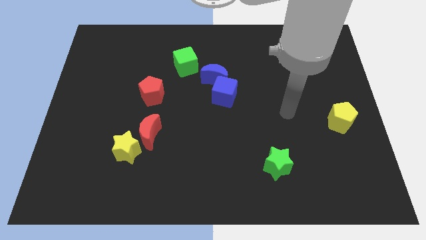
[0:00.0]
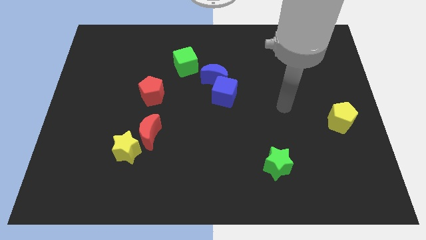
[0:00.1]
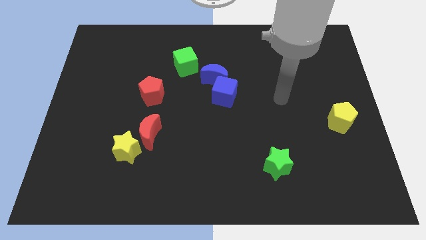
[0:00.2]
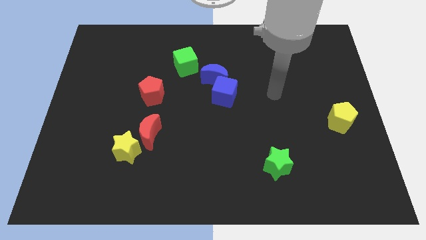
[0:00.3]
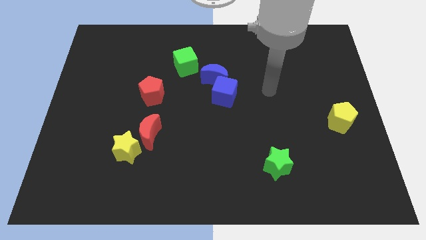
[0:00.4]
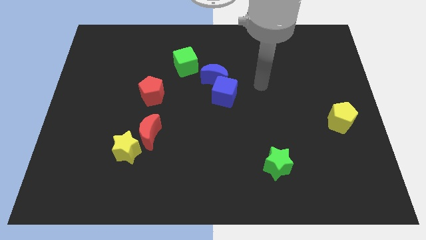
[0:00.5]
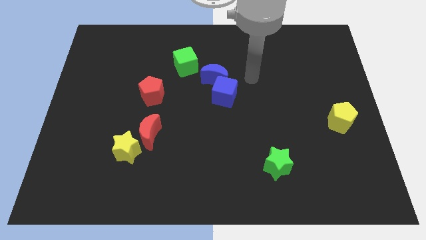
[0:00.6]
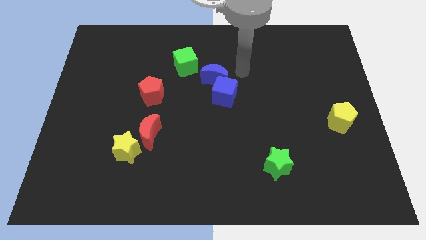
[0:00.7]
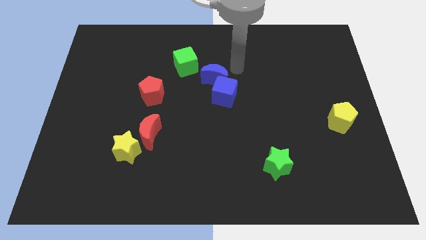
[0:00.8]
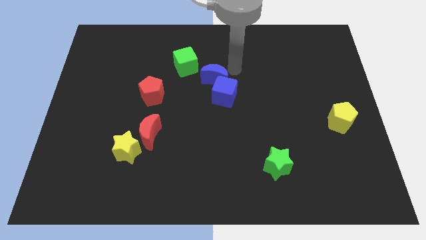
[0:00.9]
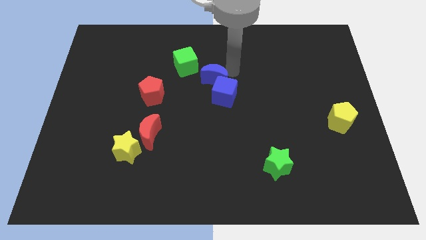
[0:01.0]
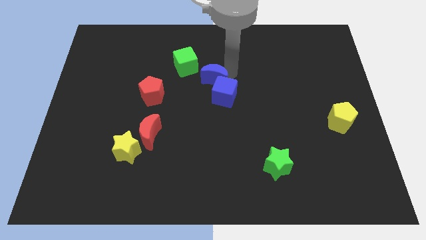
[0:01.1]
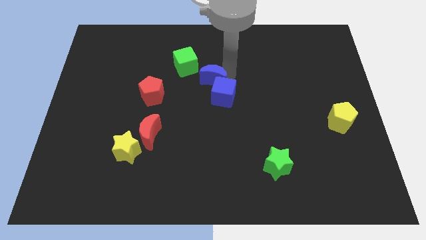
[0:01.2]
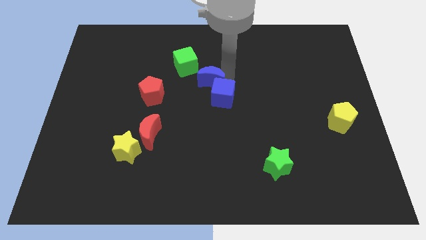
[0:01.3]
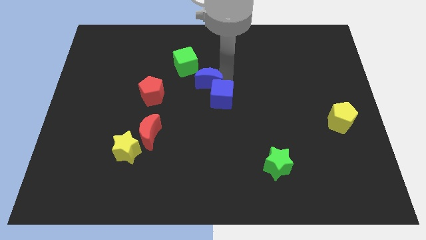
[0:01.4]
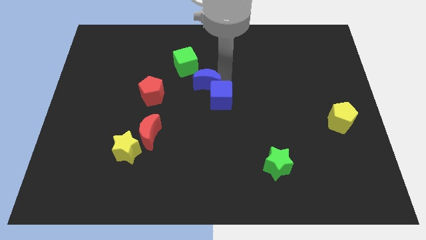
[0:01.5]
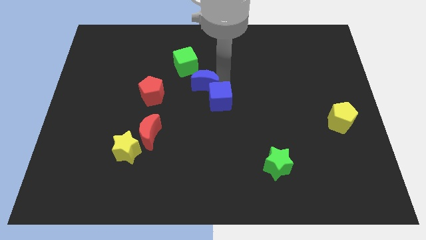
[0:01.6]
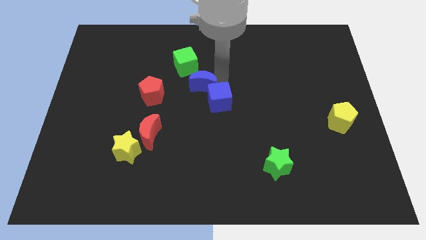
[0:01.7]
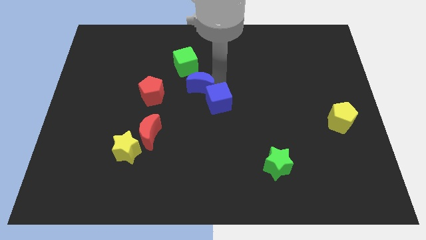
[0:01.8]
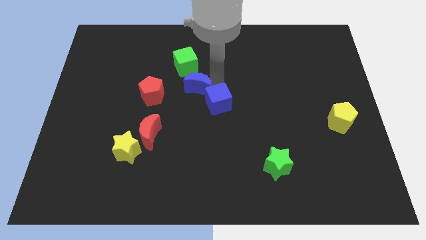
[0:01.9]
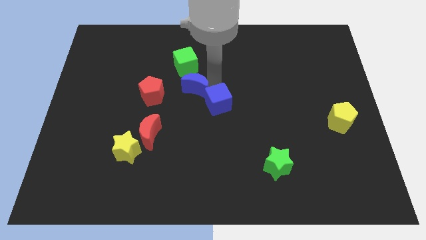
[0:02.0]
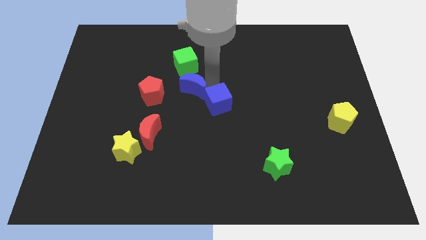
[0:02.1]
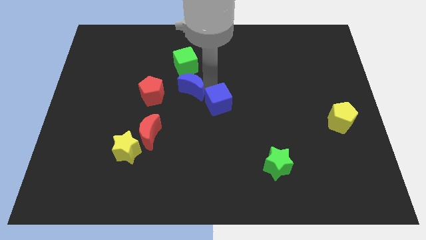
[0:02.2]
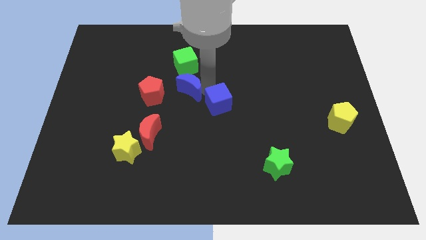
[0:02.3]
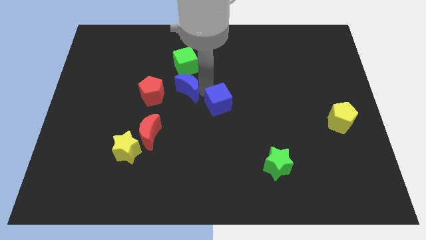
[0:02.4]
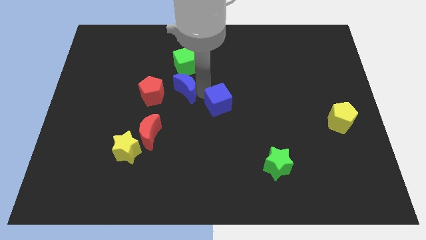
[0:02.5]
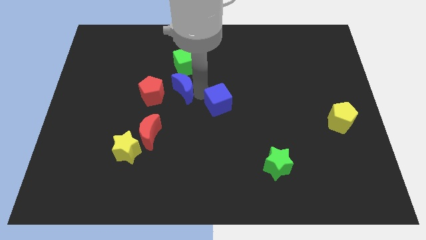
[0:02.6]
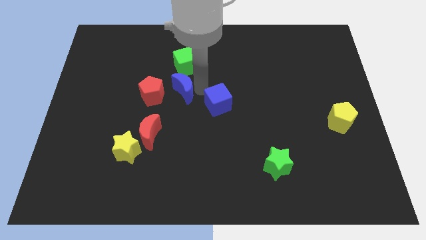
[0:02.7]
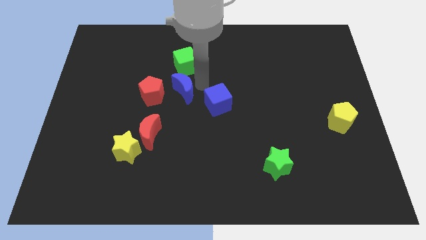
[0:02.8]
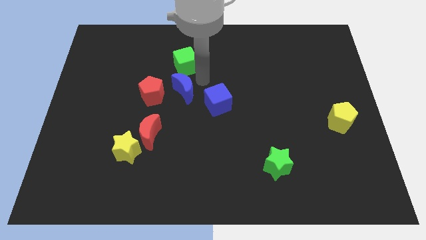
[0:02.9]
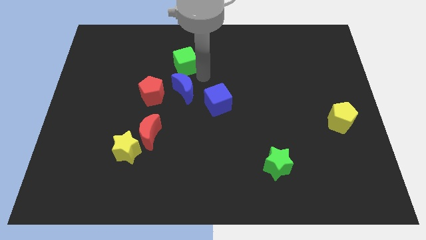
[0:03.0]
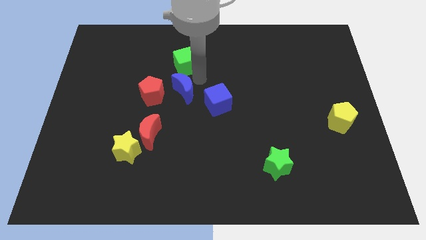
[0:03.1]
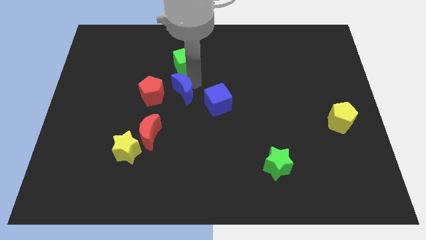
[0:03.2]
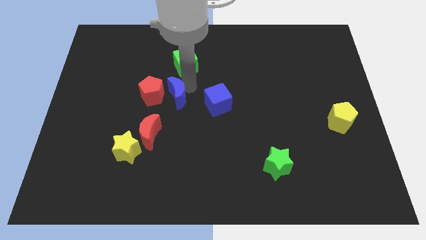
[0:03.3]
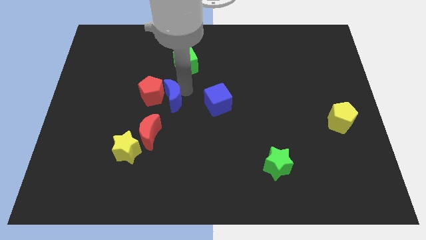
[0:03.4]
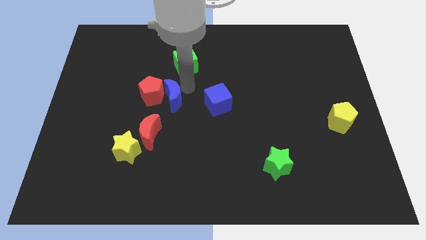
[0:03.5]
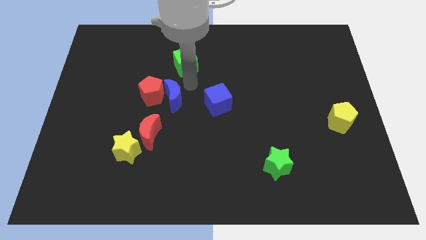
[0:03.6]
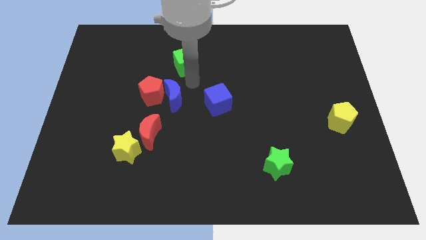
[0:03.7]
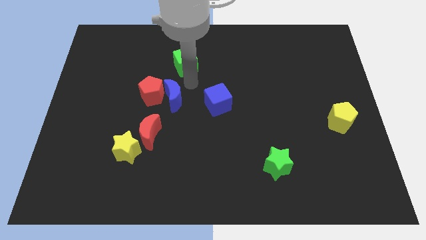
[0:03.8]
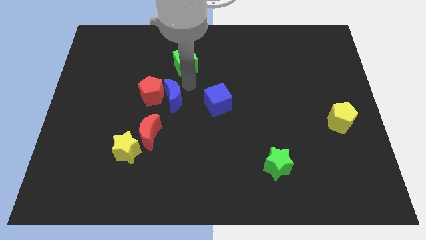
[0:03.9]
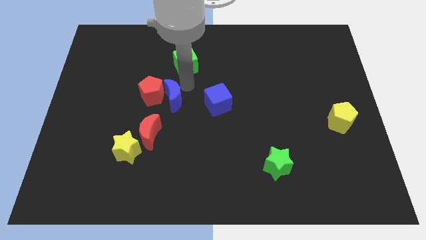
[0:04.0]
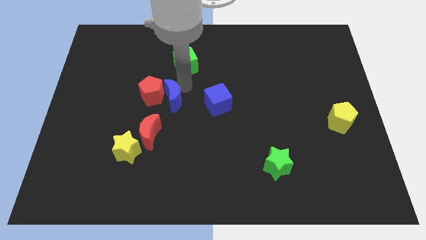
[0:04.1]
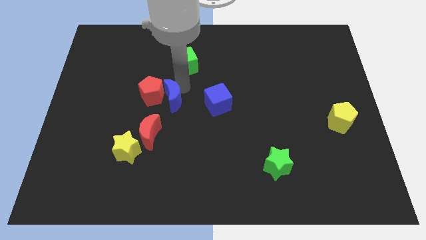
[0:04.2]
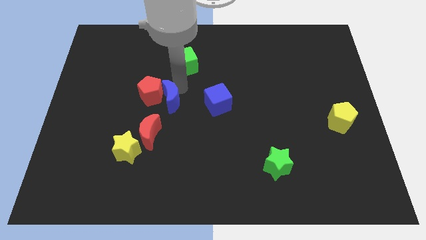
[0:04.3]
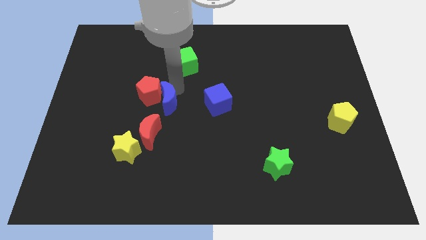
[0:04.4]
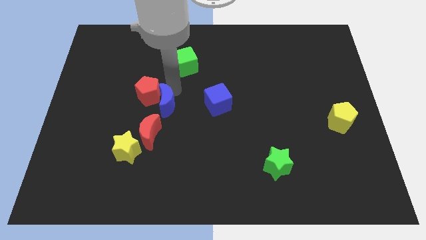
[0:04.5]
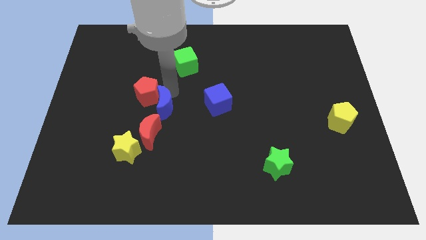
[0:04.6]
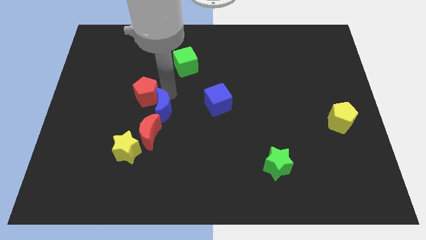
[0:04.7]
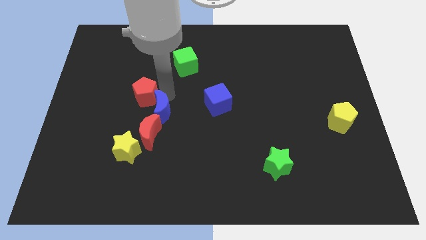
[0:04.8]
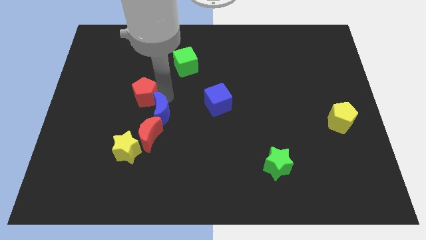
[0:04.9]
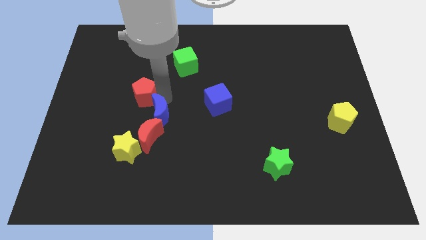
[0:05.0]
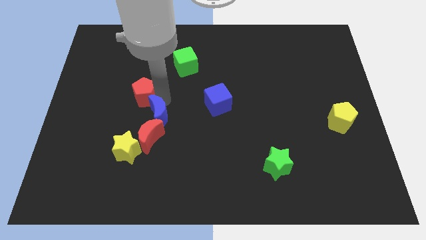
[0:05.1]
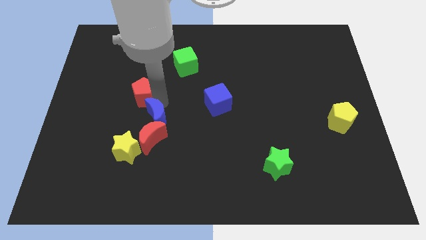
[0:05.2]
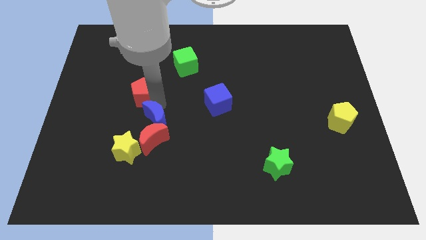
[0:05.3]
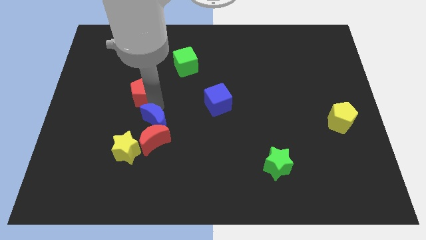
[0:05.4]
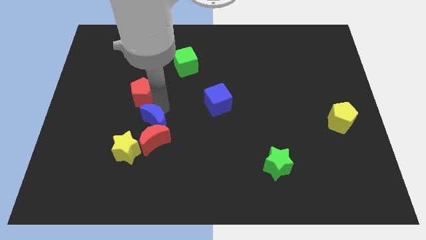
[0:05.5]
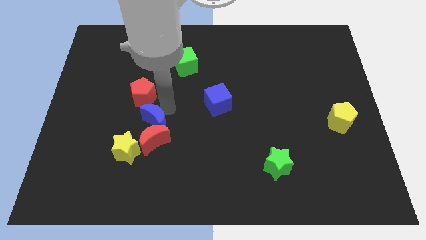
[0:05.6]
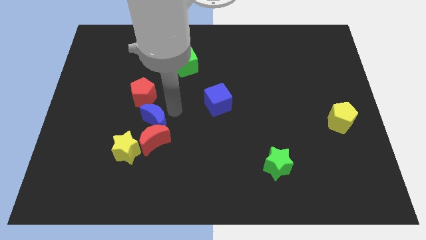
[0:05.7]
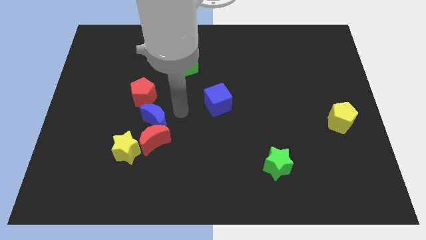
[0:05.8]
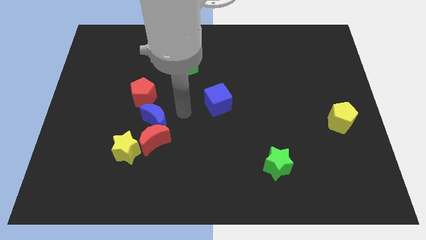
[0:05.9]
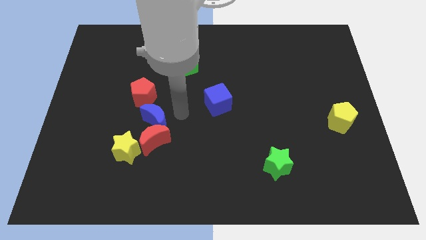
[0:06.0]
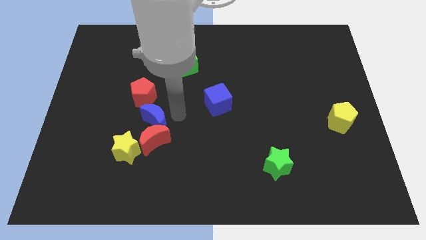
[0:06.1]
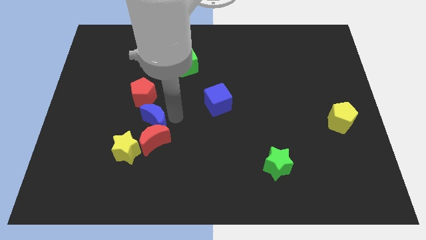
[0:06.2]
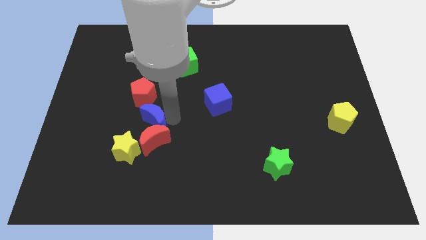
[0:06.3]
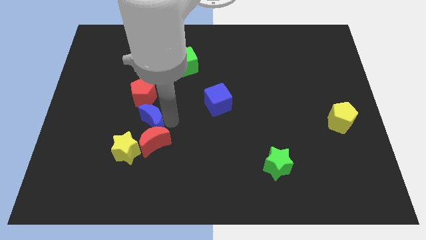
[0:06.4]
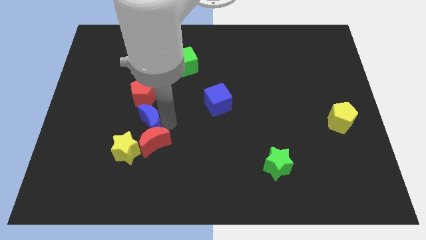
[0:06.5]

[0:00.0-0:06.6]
push the blue moon downwards and left diagonally

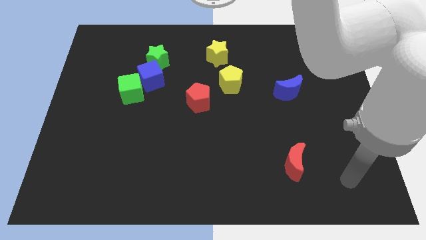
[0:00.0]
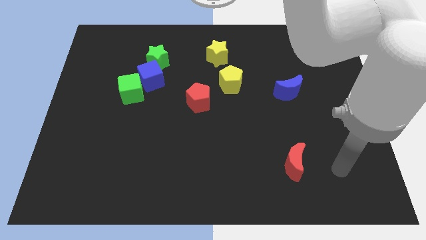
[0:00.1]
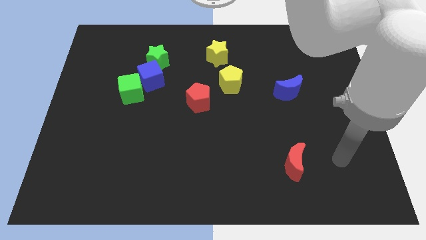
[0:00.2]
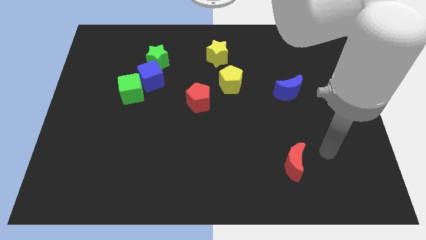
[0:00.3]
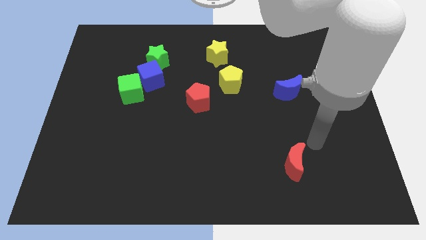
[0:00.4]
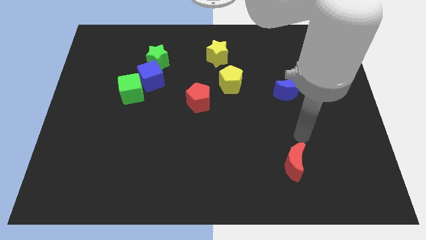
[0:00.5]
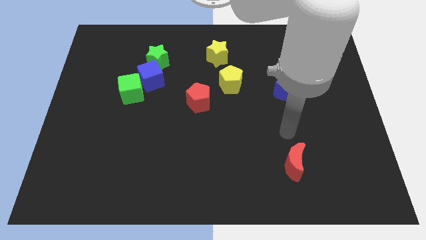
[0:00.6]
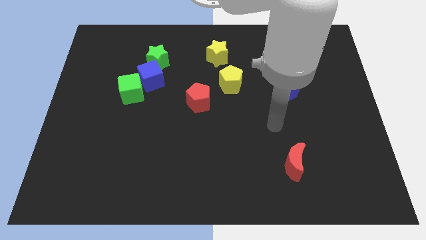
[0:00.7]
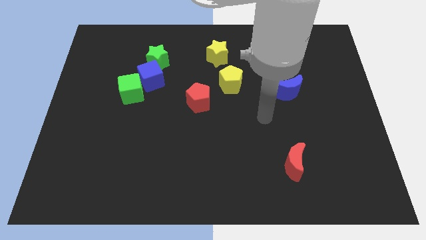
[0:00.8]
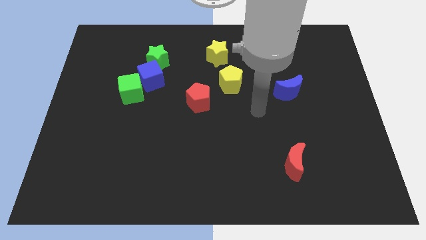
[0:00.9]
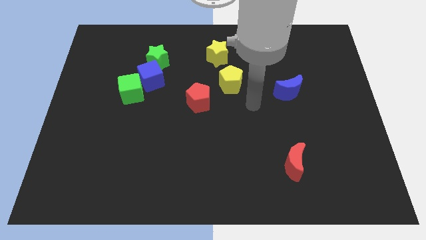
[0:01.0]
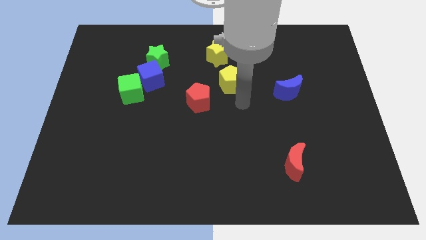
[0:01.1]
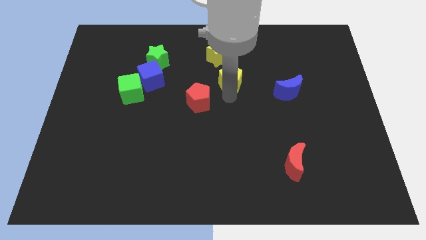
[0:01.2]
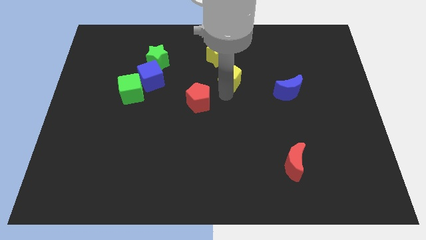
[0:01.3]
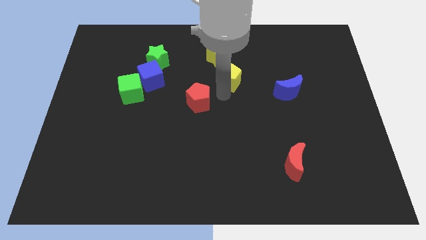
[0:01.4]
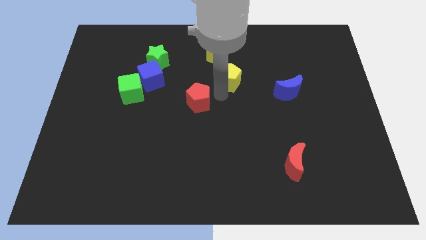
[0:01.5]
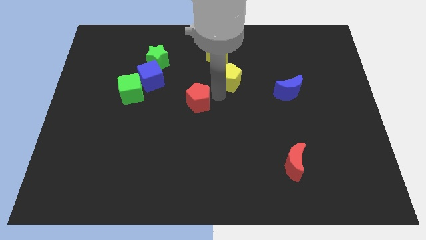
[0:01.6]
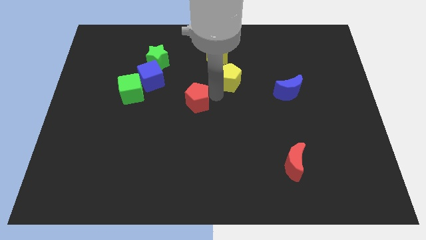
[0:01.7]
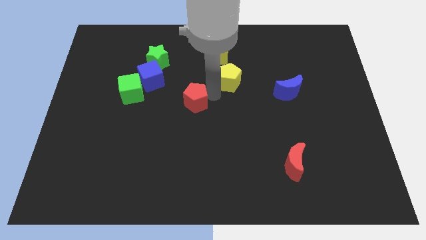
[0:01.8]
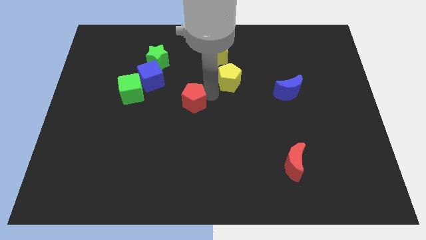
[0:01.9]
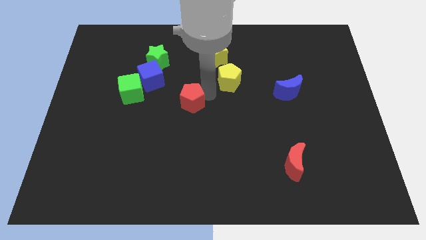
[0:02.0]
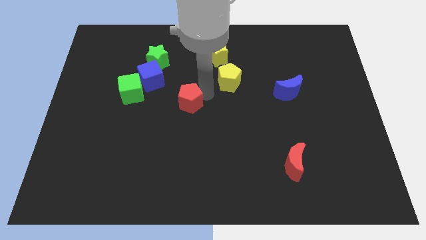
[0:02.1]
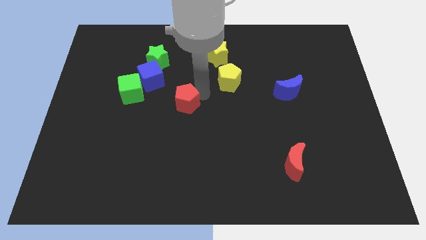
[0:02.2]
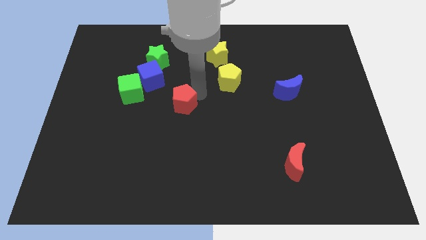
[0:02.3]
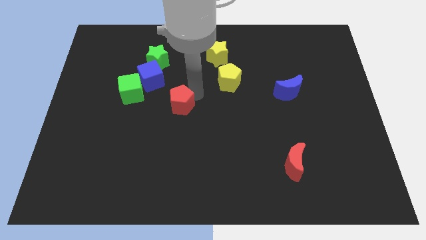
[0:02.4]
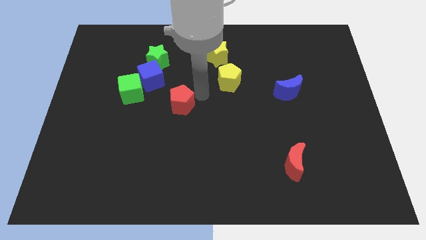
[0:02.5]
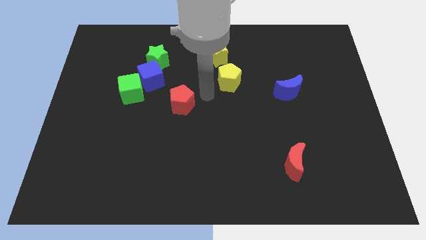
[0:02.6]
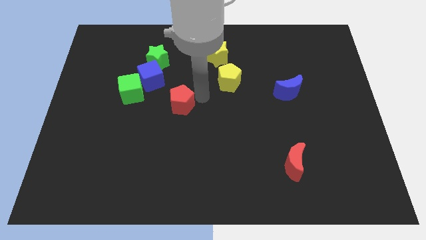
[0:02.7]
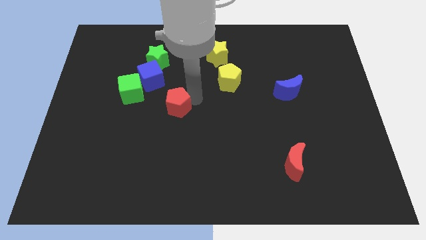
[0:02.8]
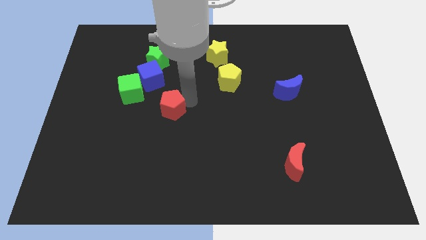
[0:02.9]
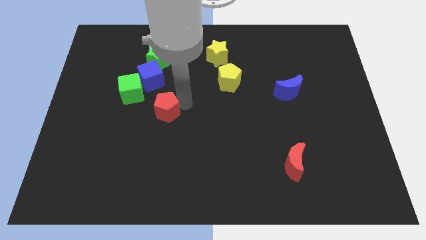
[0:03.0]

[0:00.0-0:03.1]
push the red pentagon somewhat left
